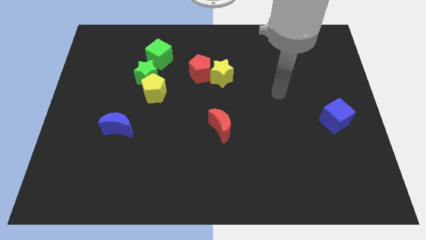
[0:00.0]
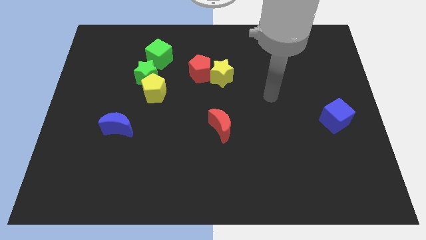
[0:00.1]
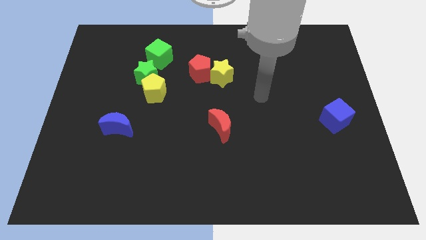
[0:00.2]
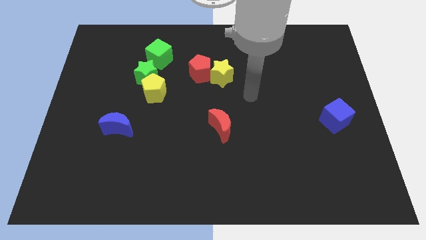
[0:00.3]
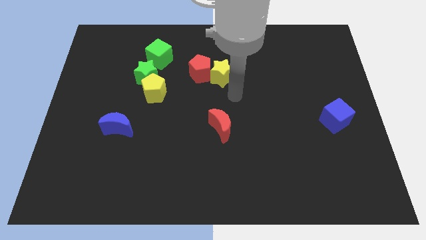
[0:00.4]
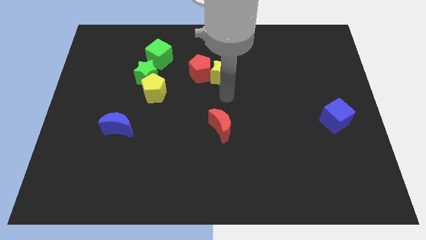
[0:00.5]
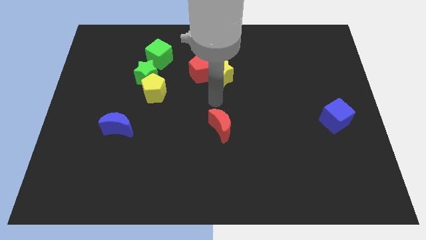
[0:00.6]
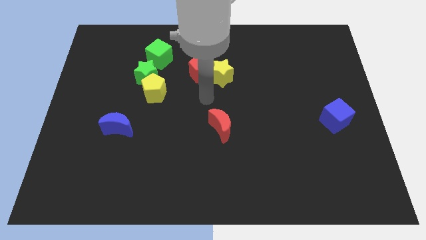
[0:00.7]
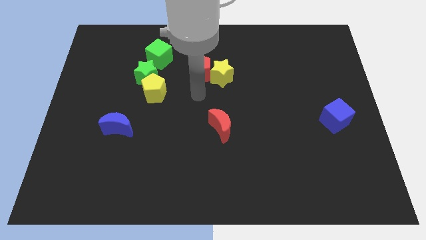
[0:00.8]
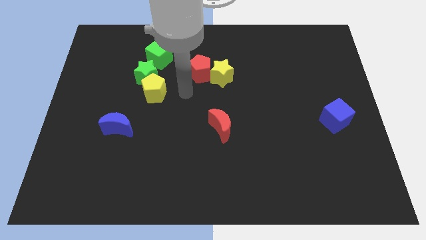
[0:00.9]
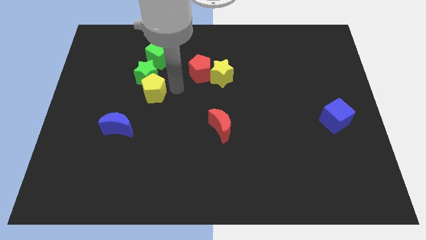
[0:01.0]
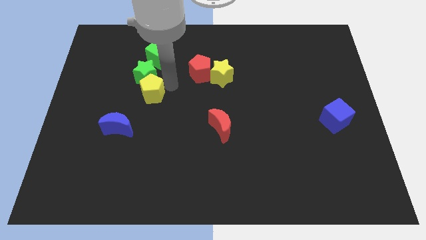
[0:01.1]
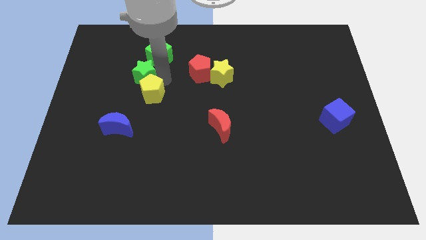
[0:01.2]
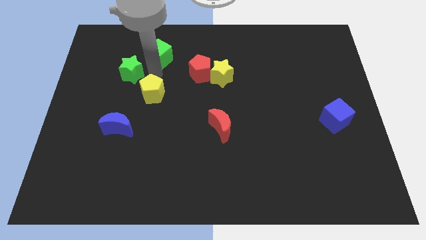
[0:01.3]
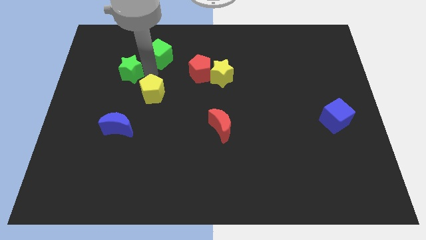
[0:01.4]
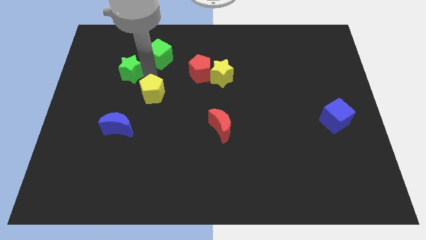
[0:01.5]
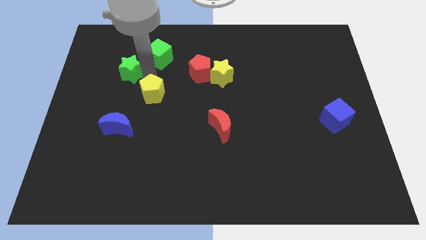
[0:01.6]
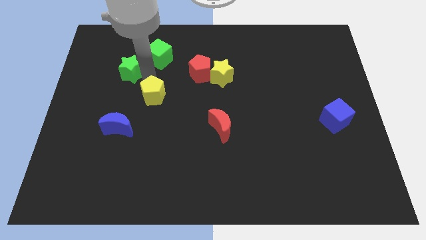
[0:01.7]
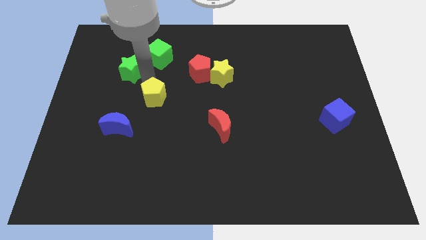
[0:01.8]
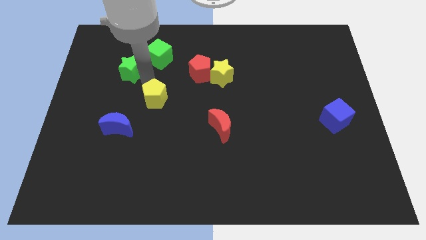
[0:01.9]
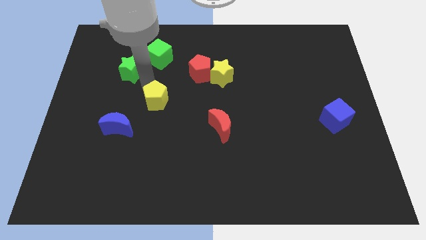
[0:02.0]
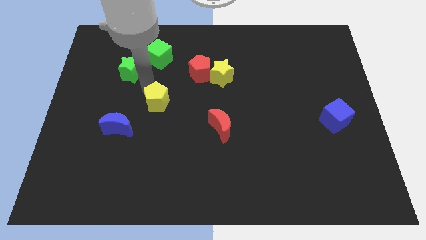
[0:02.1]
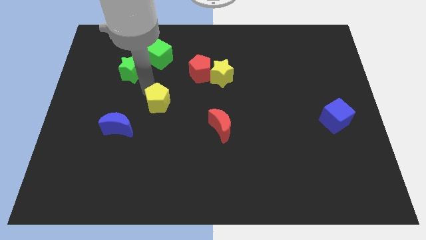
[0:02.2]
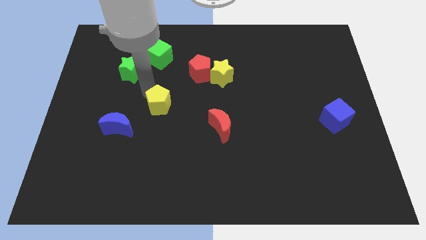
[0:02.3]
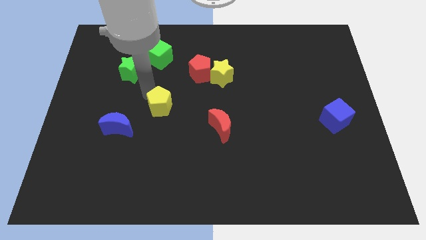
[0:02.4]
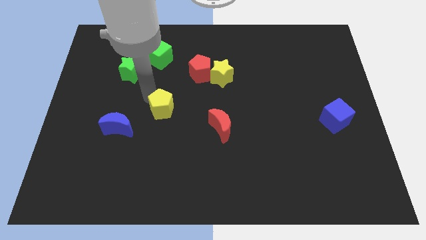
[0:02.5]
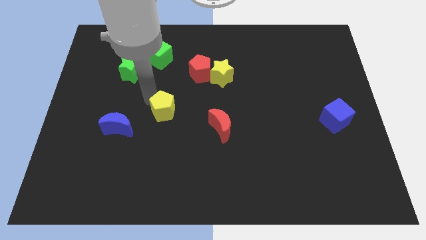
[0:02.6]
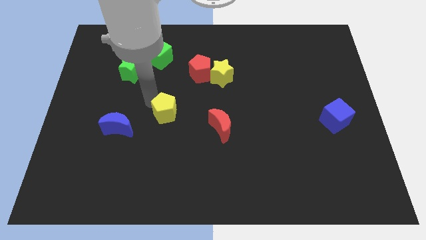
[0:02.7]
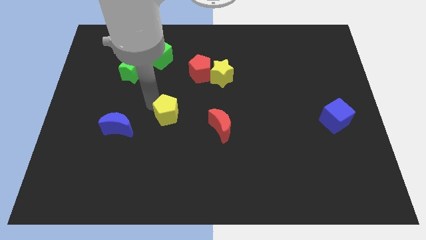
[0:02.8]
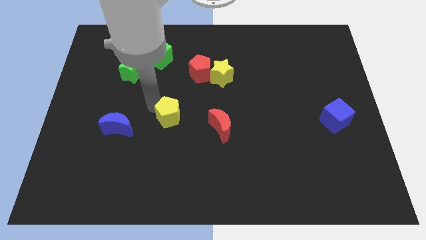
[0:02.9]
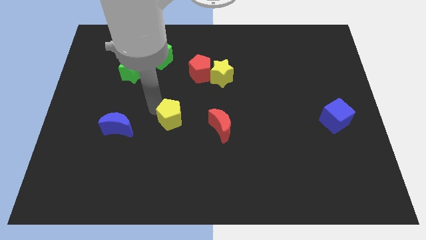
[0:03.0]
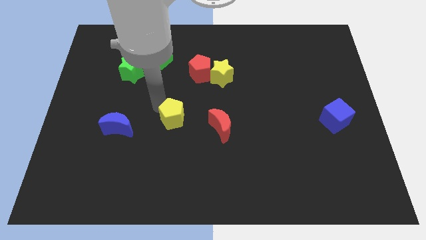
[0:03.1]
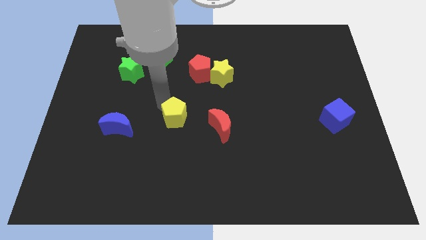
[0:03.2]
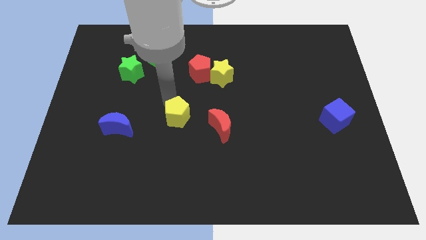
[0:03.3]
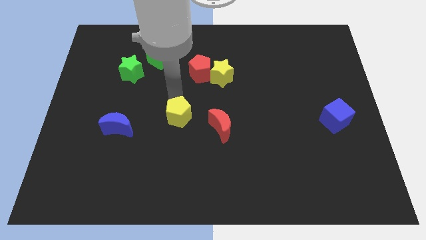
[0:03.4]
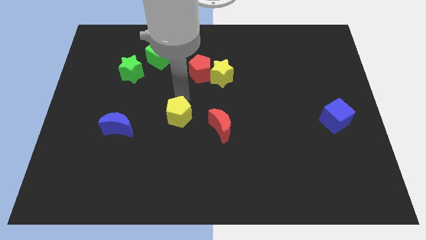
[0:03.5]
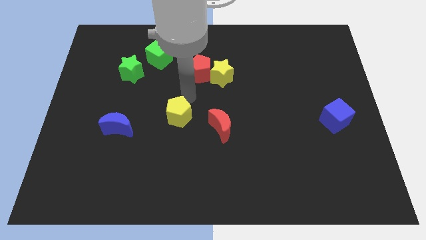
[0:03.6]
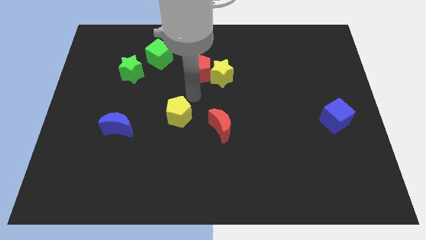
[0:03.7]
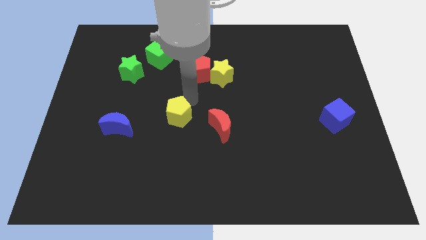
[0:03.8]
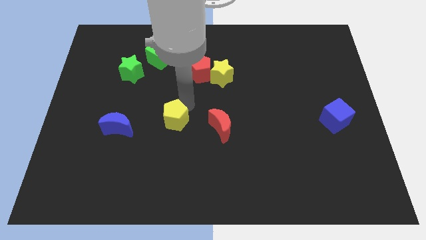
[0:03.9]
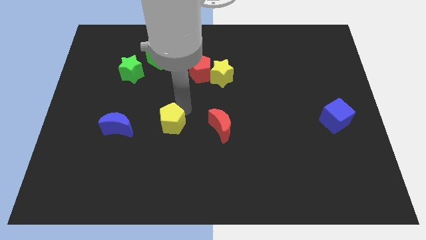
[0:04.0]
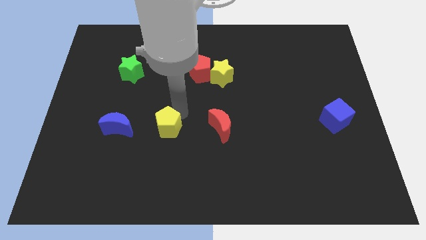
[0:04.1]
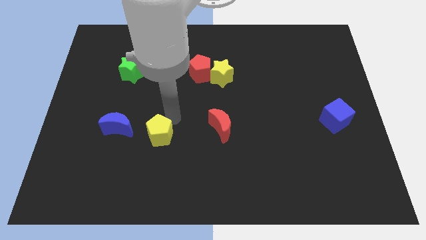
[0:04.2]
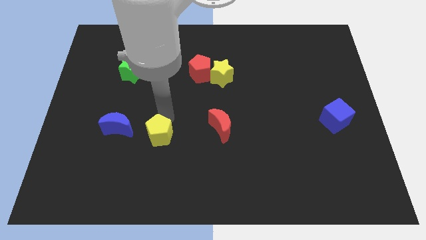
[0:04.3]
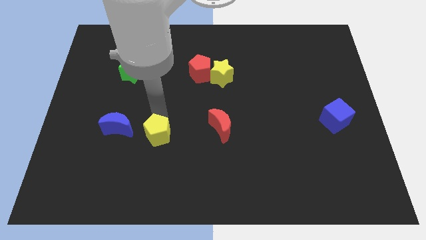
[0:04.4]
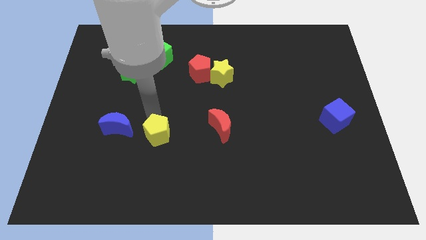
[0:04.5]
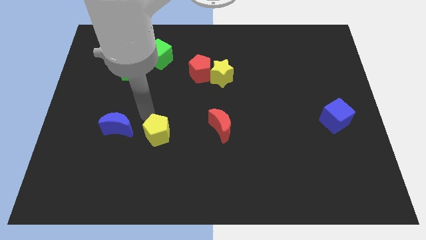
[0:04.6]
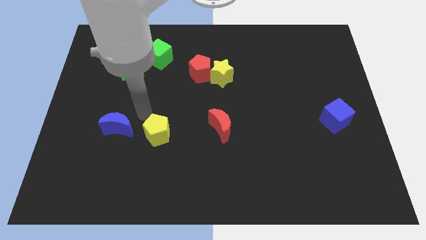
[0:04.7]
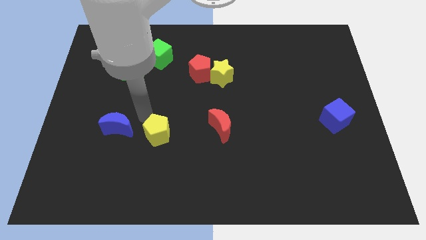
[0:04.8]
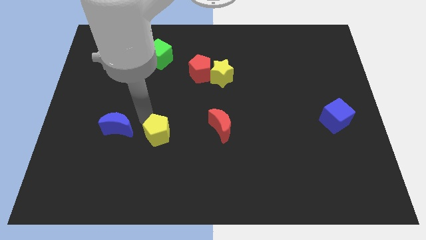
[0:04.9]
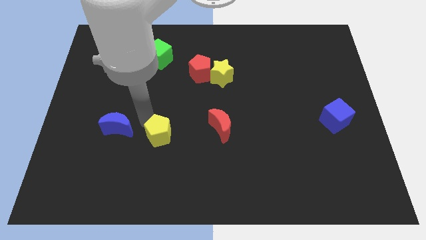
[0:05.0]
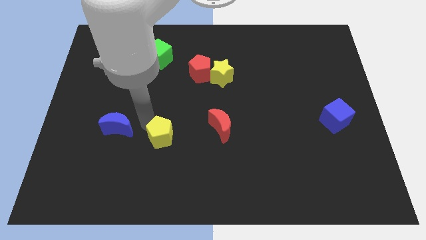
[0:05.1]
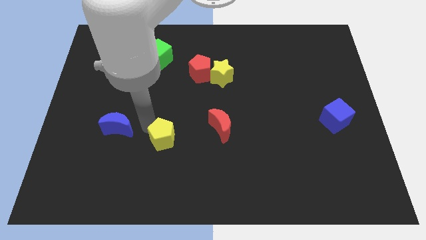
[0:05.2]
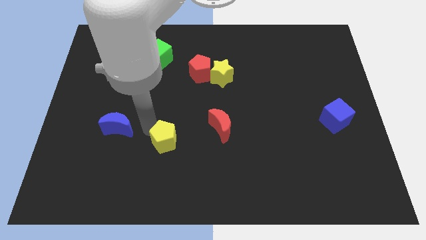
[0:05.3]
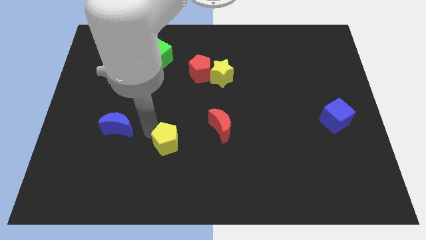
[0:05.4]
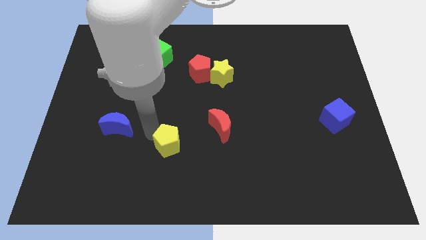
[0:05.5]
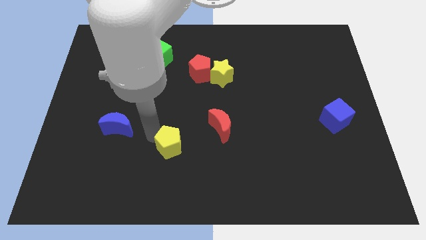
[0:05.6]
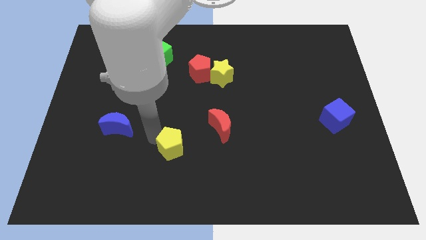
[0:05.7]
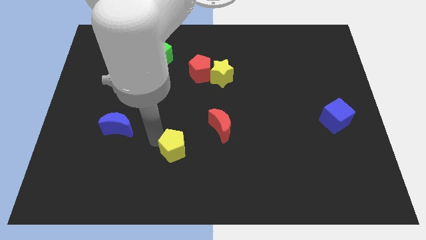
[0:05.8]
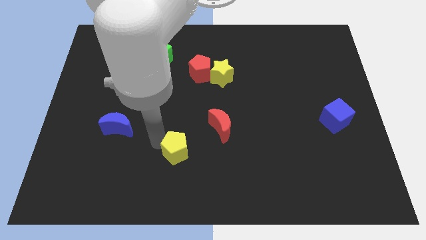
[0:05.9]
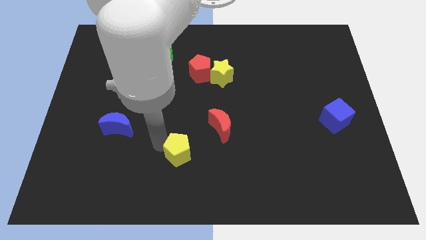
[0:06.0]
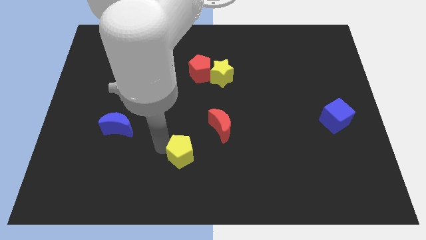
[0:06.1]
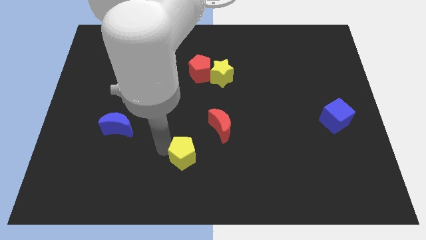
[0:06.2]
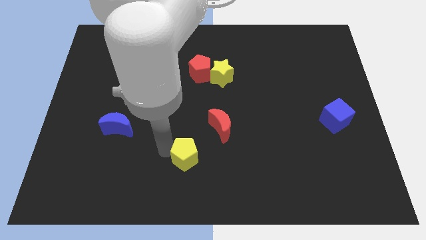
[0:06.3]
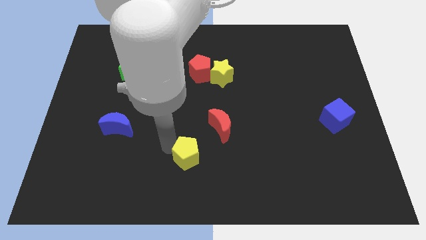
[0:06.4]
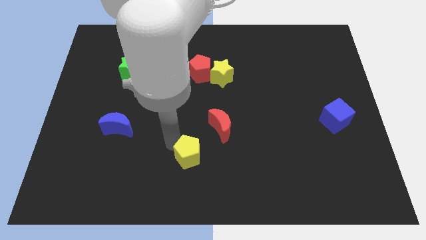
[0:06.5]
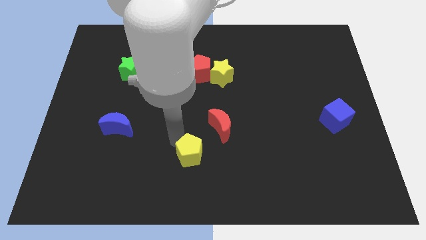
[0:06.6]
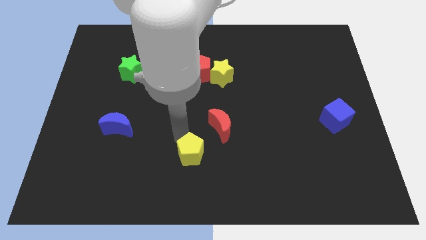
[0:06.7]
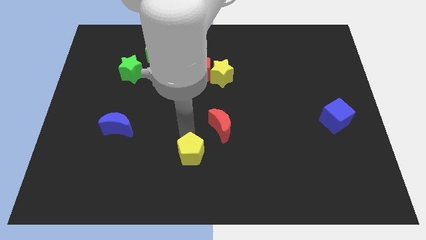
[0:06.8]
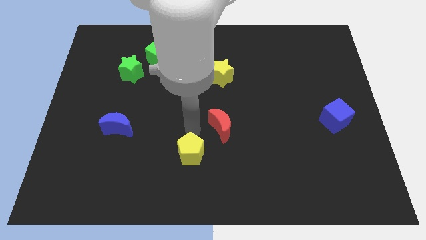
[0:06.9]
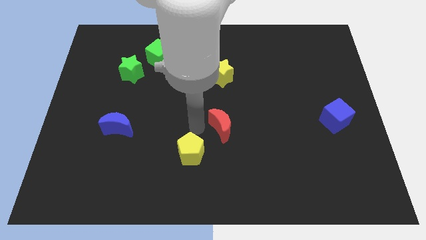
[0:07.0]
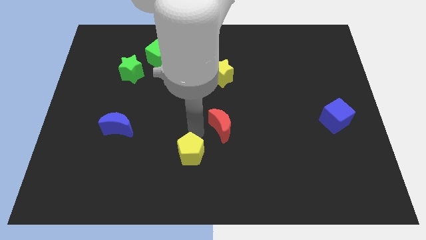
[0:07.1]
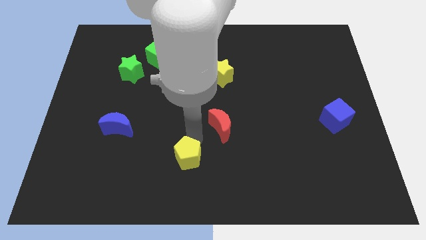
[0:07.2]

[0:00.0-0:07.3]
put the yellow pentagon to the bottom side
